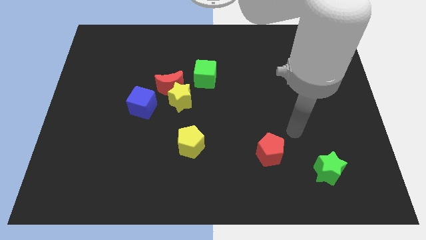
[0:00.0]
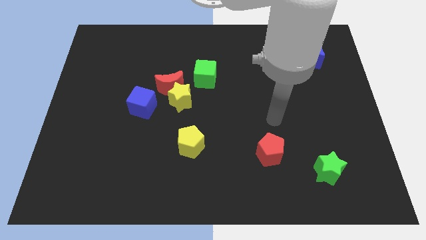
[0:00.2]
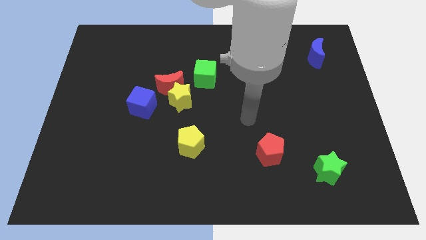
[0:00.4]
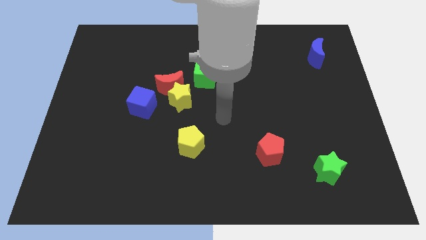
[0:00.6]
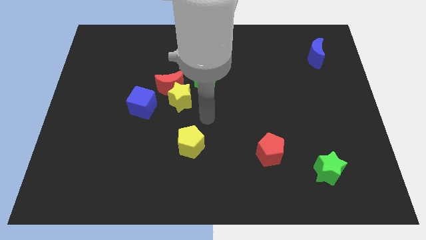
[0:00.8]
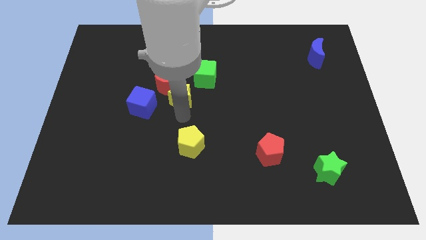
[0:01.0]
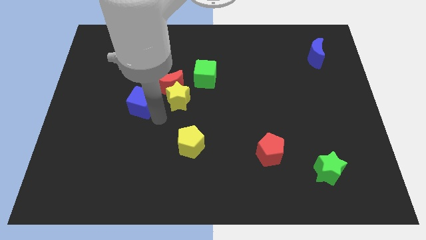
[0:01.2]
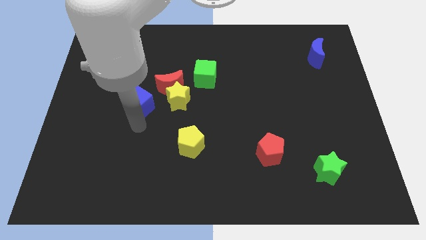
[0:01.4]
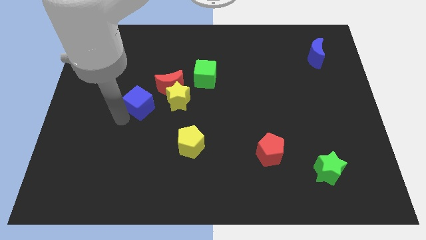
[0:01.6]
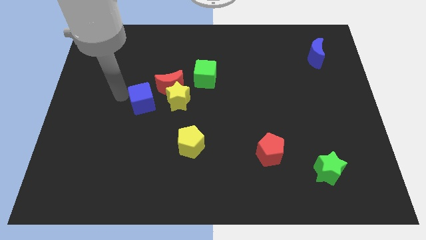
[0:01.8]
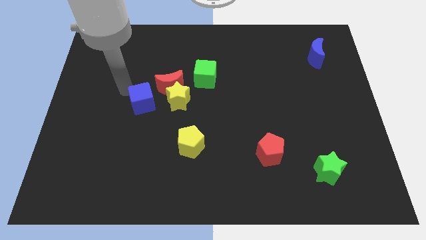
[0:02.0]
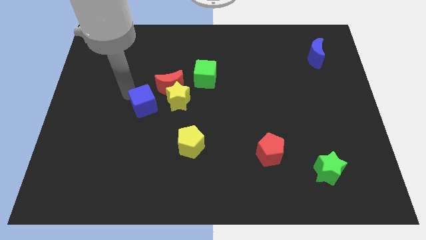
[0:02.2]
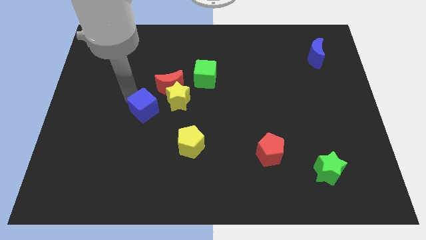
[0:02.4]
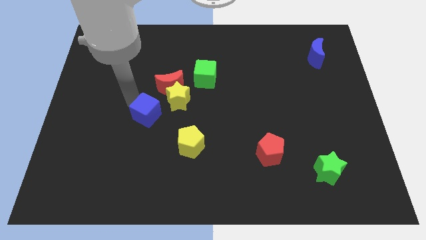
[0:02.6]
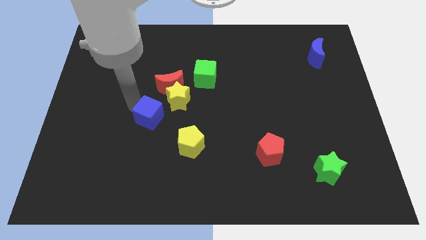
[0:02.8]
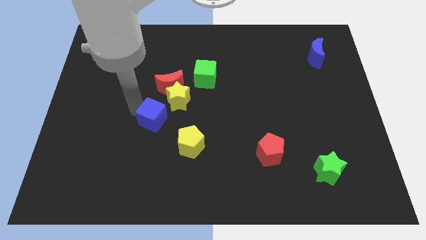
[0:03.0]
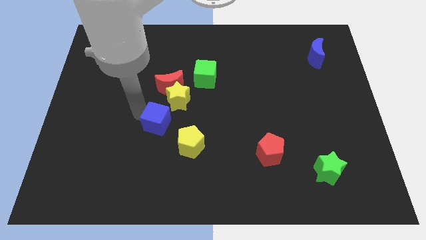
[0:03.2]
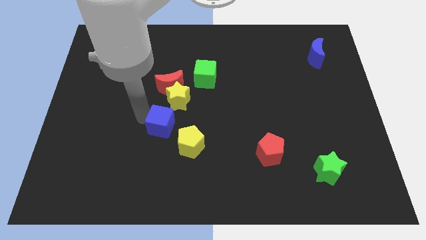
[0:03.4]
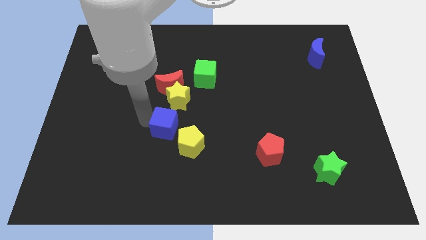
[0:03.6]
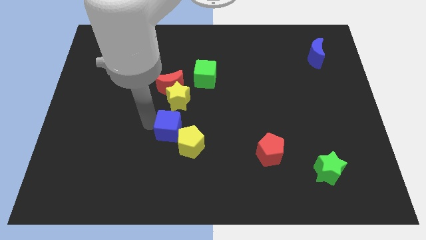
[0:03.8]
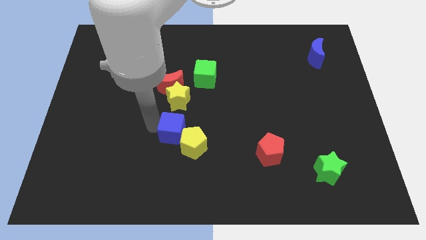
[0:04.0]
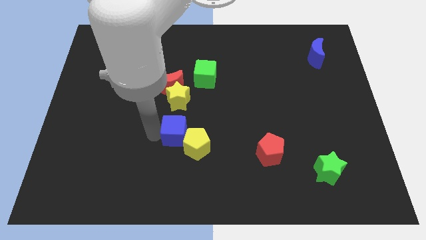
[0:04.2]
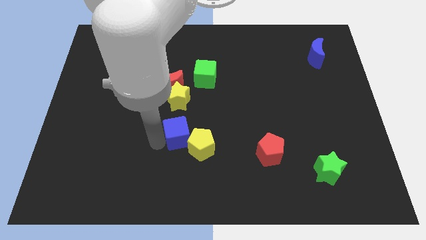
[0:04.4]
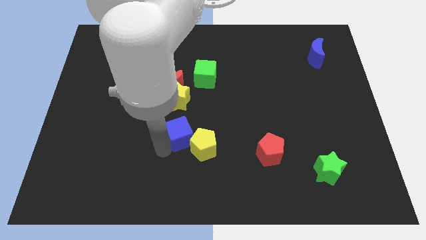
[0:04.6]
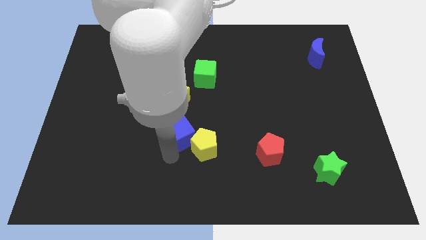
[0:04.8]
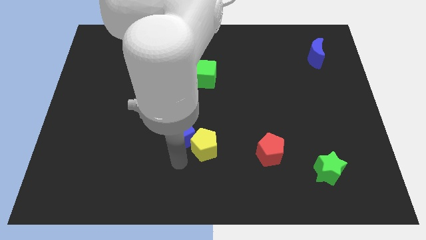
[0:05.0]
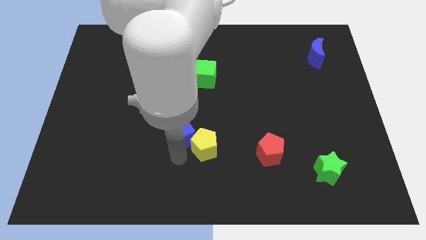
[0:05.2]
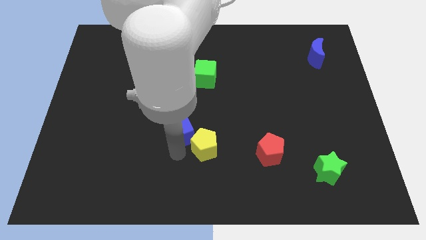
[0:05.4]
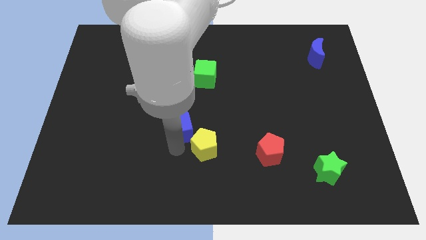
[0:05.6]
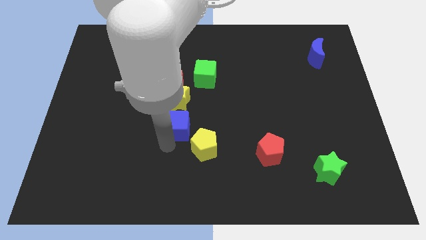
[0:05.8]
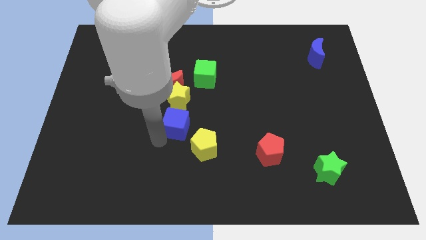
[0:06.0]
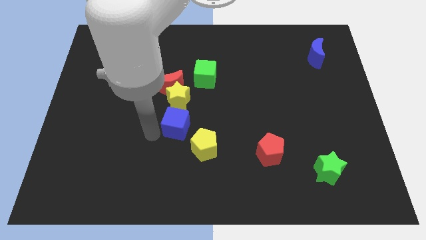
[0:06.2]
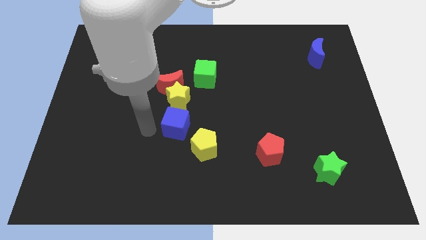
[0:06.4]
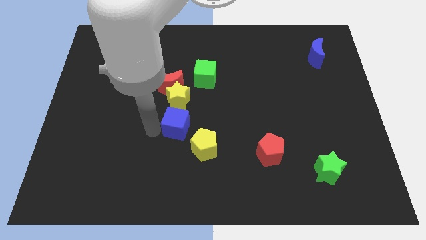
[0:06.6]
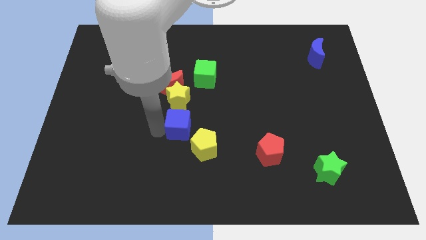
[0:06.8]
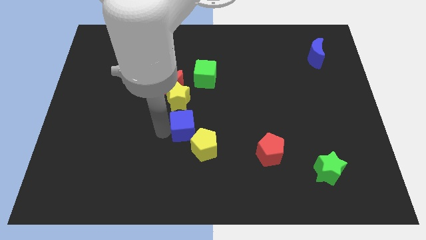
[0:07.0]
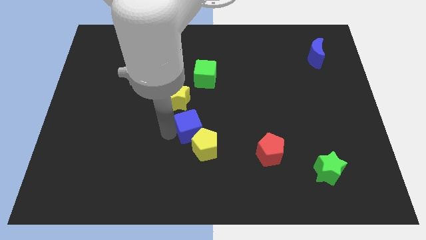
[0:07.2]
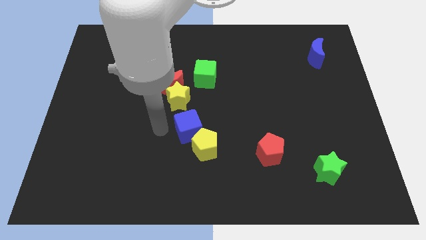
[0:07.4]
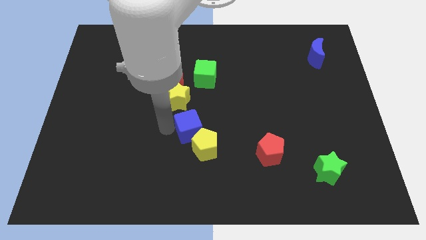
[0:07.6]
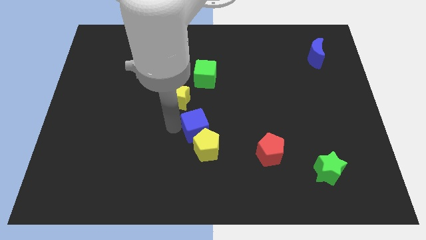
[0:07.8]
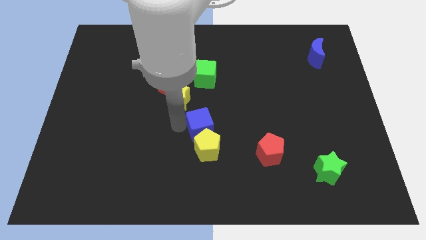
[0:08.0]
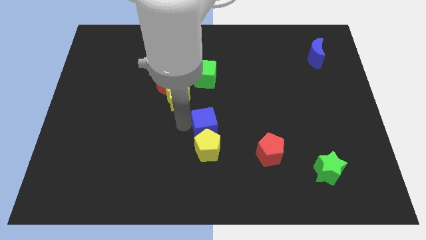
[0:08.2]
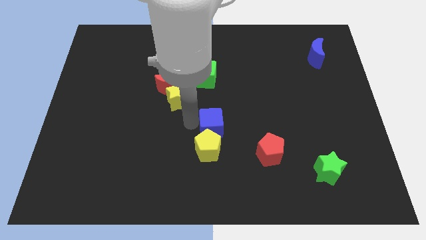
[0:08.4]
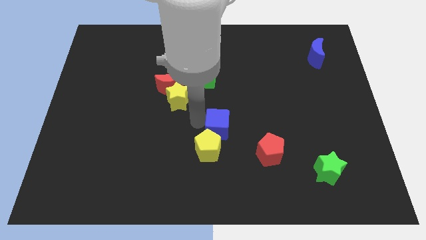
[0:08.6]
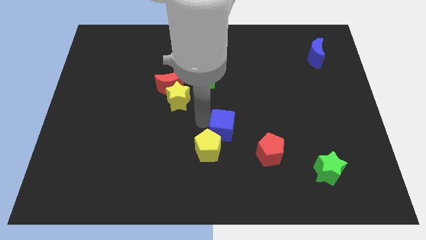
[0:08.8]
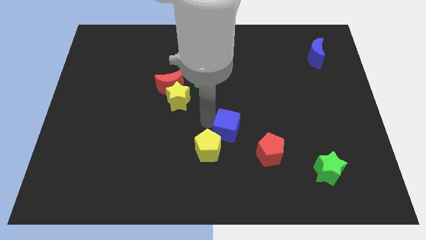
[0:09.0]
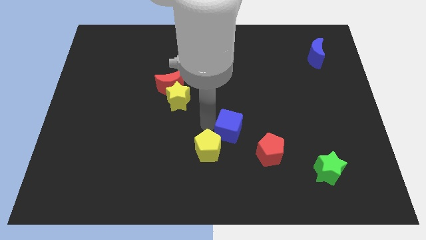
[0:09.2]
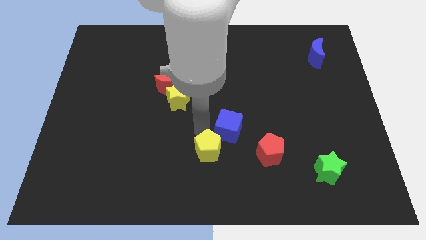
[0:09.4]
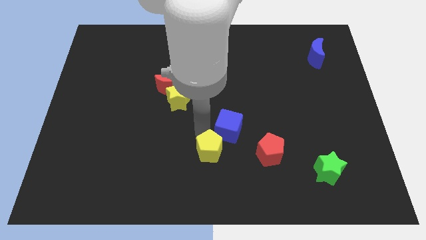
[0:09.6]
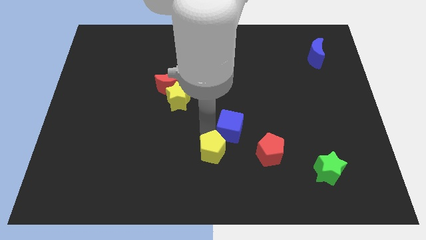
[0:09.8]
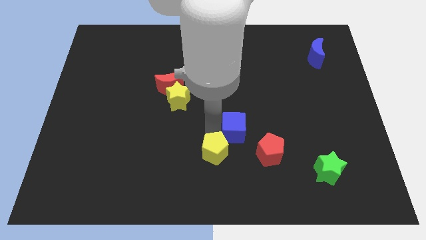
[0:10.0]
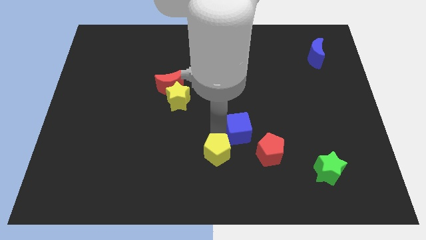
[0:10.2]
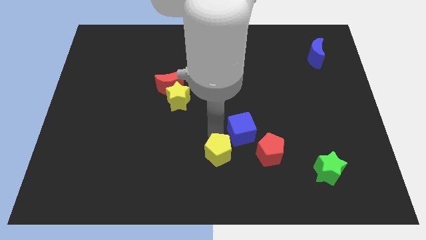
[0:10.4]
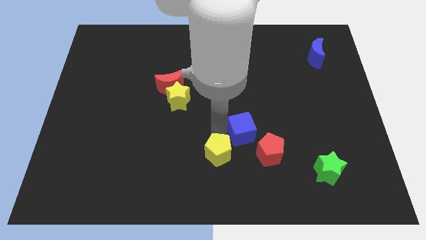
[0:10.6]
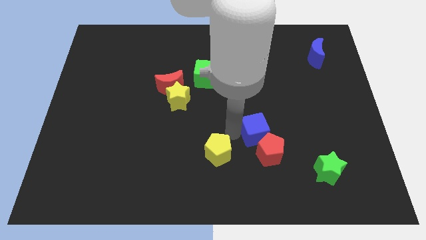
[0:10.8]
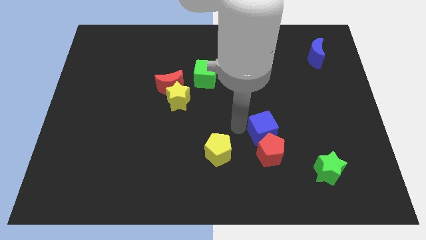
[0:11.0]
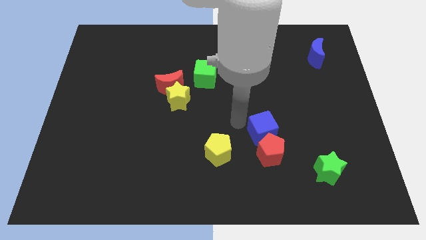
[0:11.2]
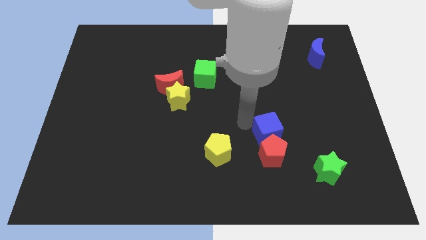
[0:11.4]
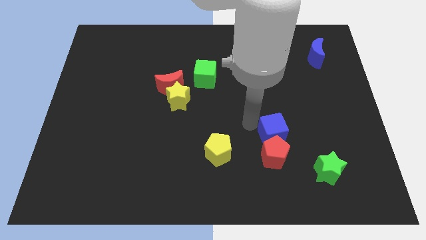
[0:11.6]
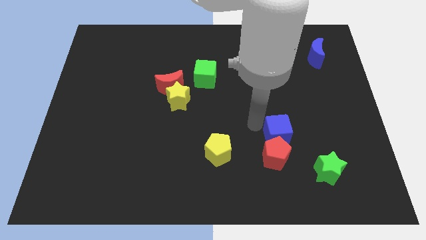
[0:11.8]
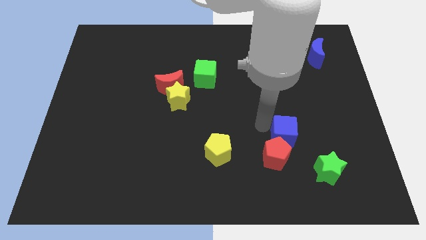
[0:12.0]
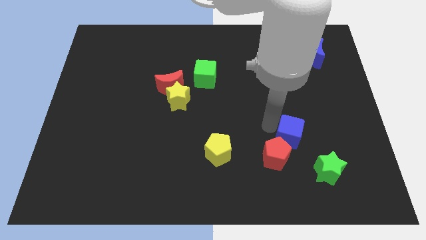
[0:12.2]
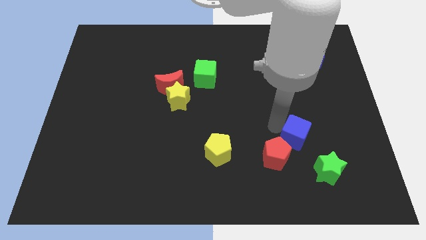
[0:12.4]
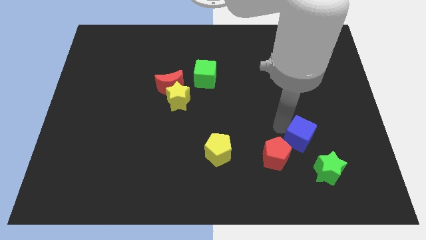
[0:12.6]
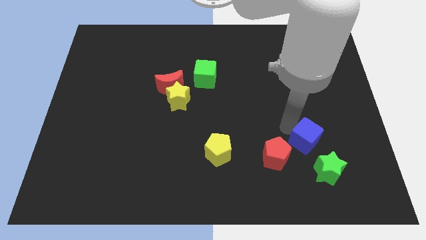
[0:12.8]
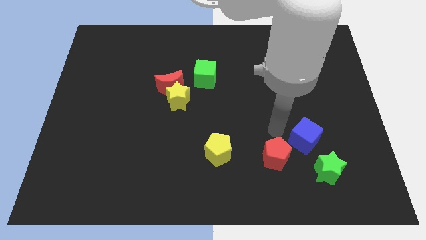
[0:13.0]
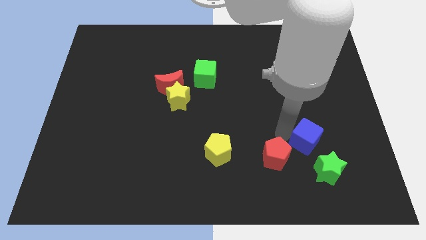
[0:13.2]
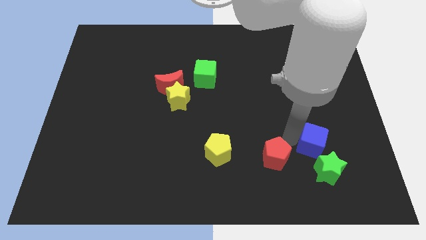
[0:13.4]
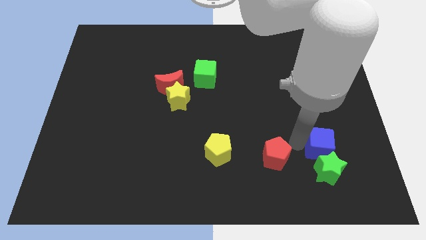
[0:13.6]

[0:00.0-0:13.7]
move the blue cube to the top right of the green star

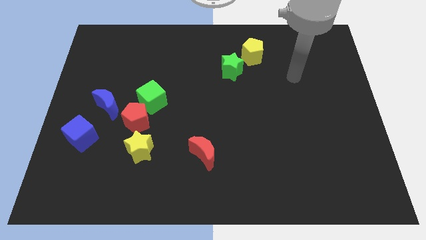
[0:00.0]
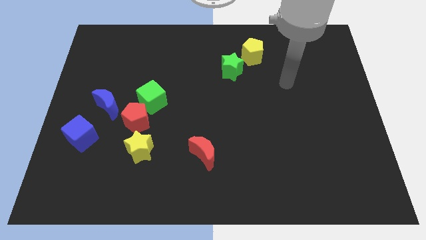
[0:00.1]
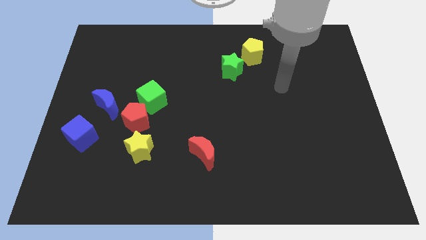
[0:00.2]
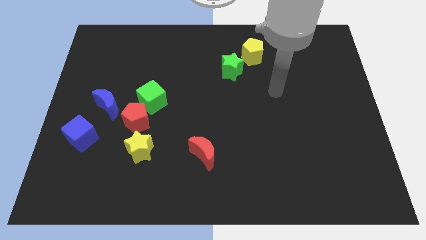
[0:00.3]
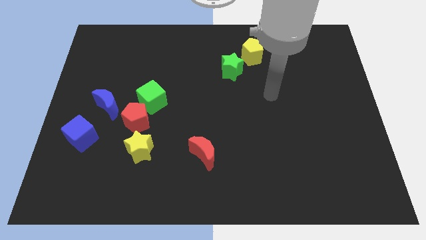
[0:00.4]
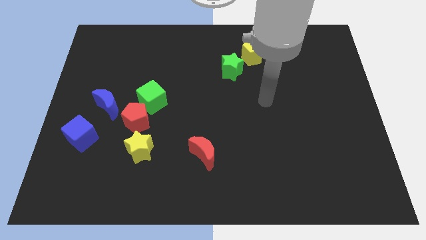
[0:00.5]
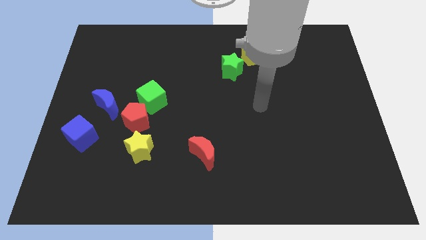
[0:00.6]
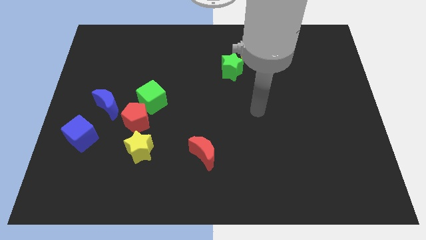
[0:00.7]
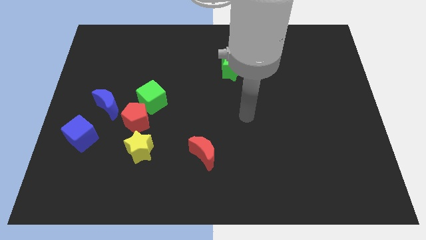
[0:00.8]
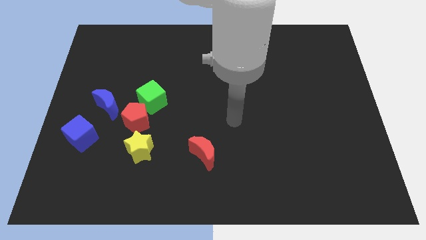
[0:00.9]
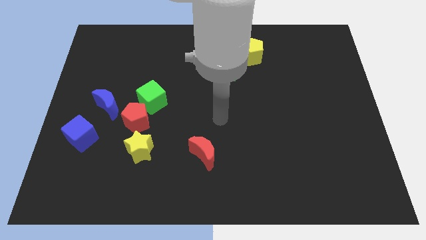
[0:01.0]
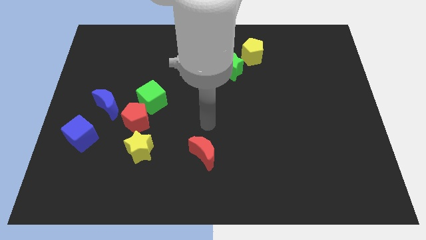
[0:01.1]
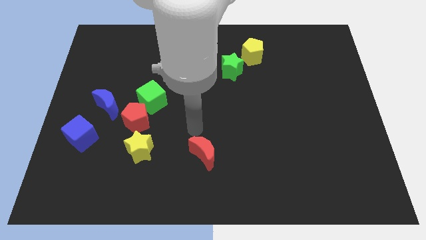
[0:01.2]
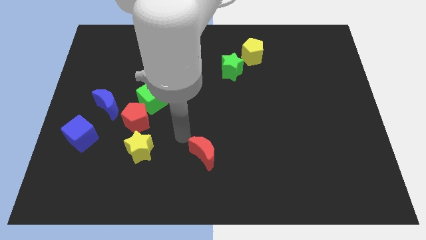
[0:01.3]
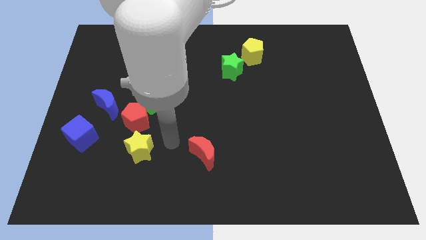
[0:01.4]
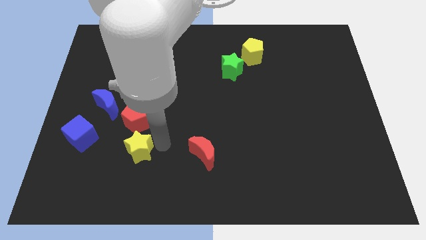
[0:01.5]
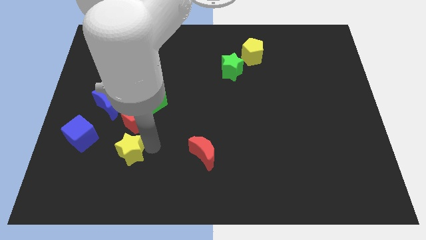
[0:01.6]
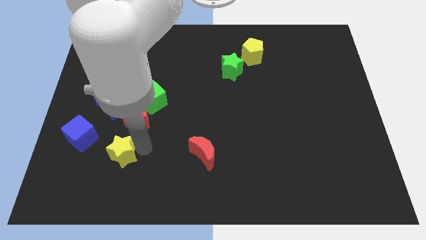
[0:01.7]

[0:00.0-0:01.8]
slide the yellow star to the bottom right side of the blue cube
